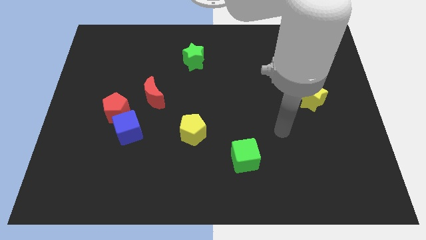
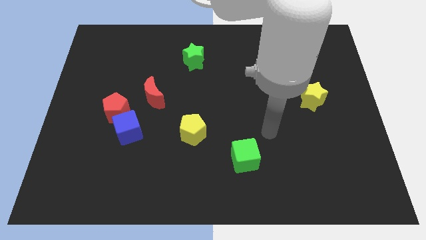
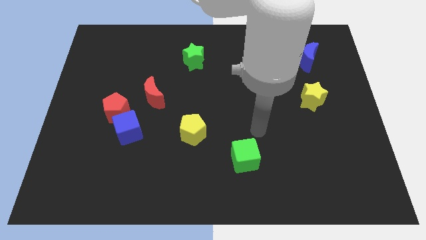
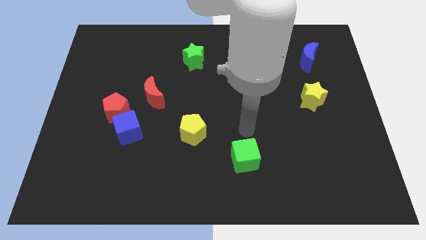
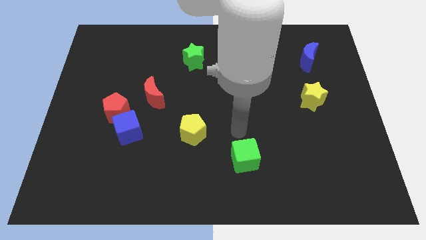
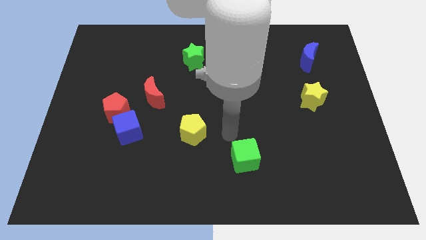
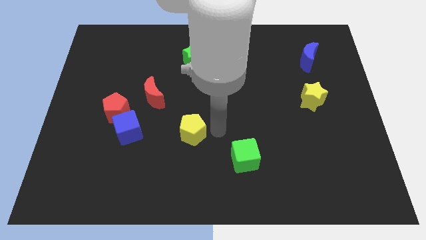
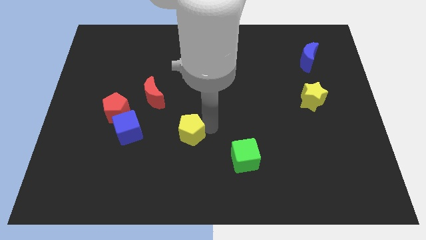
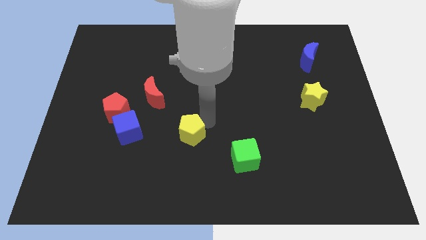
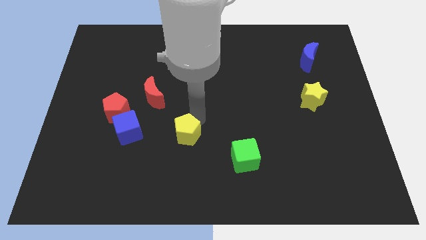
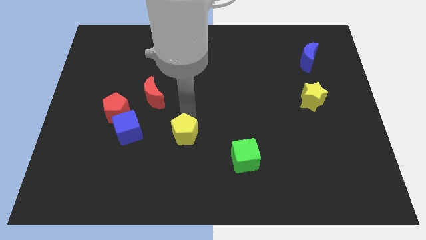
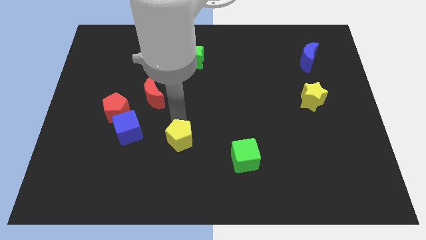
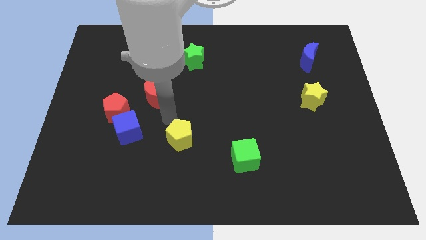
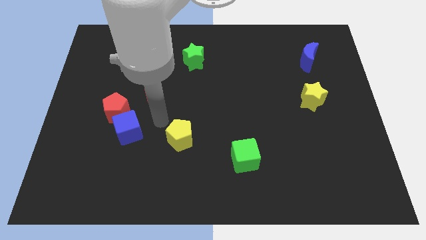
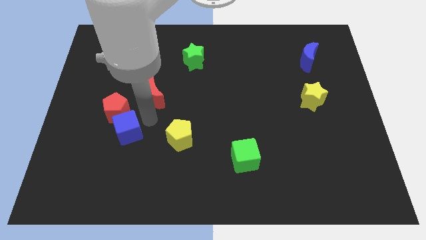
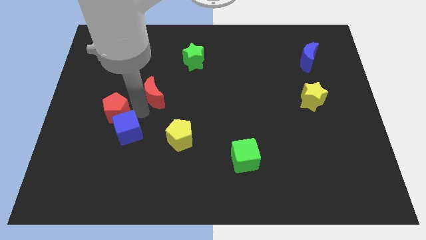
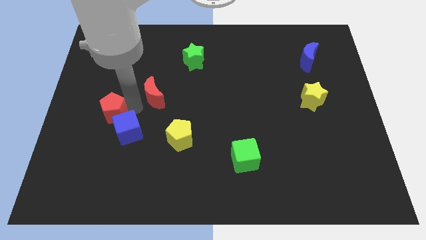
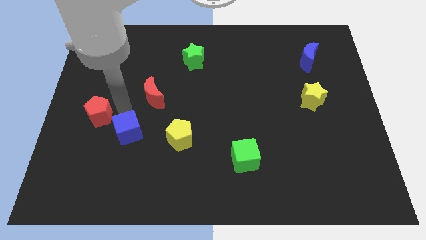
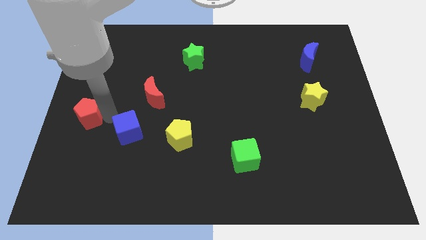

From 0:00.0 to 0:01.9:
separate the blue cube from the red pentagon

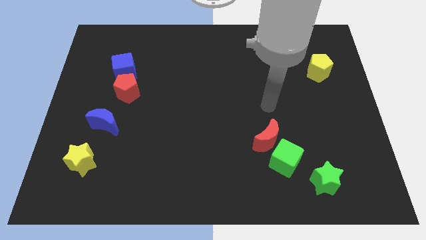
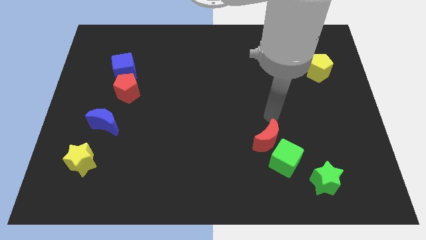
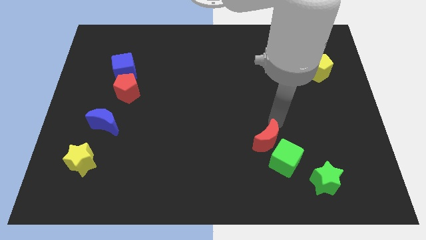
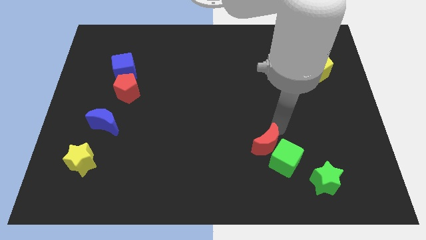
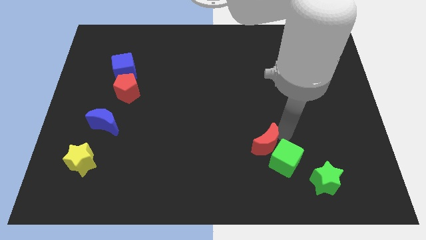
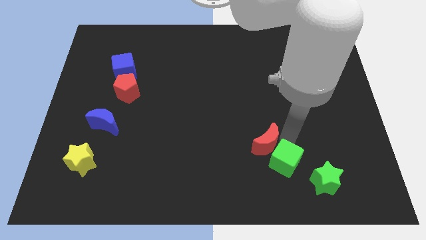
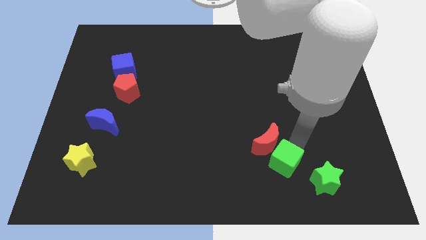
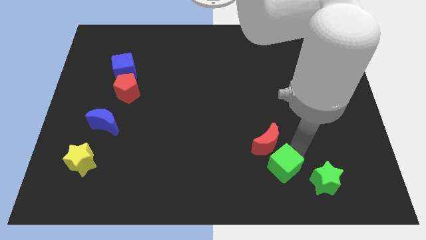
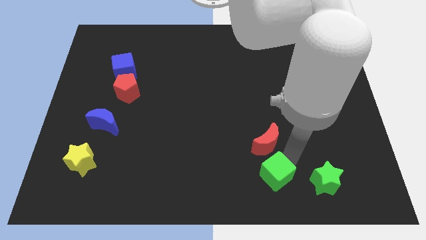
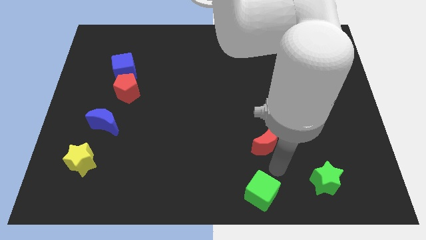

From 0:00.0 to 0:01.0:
separate the red moon from the green cube

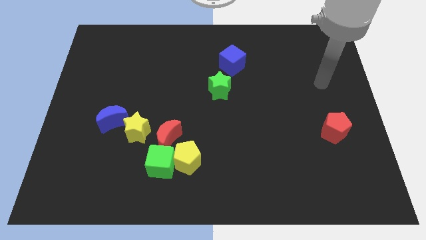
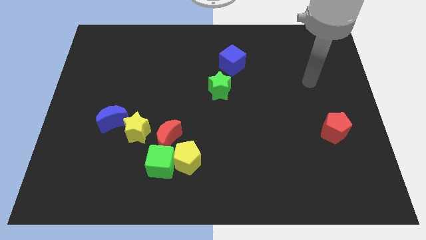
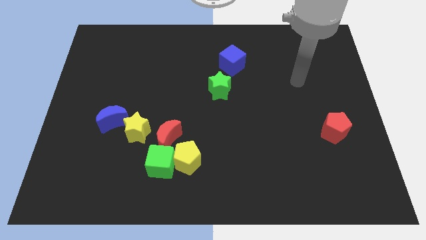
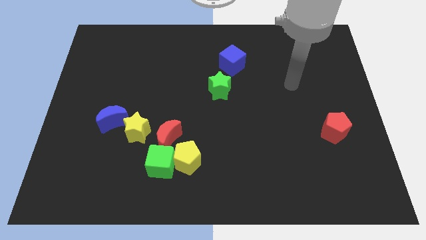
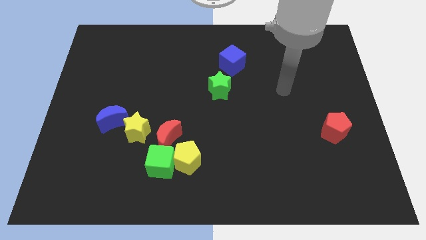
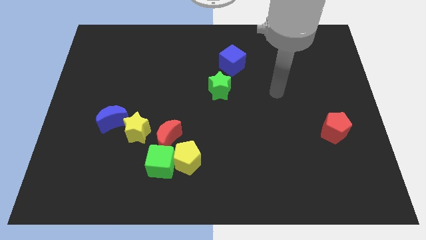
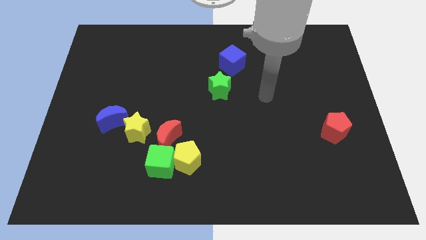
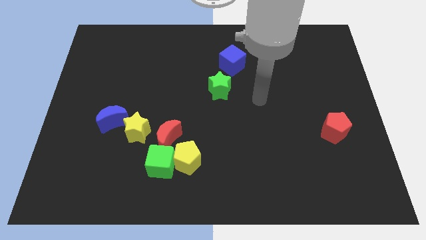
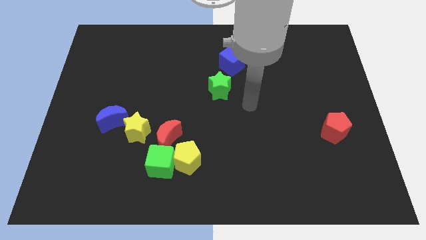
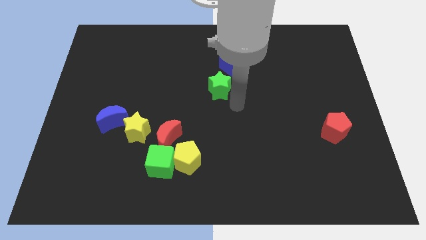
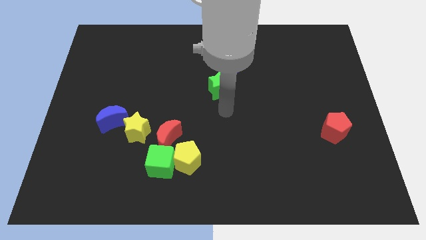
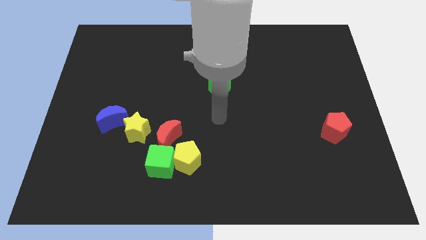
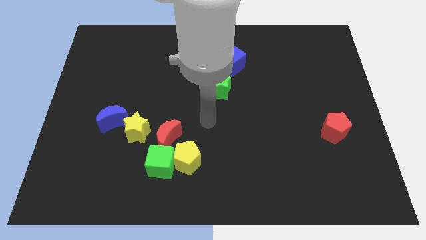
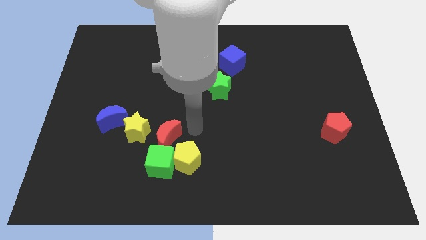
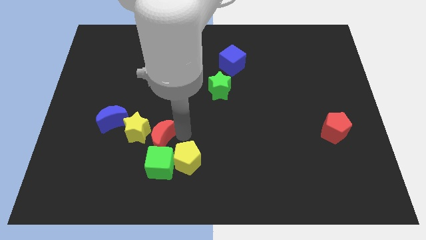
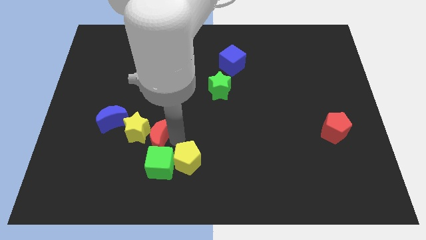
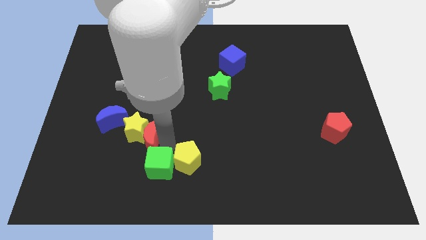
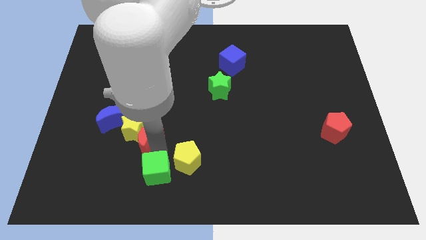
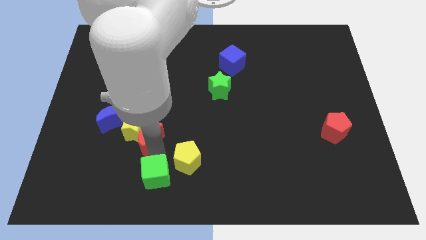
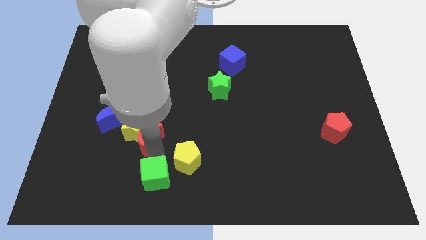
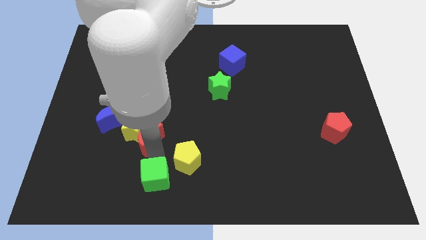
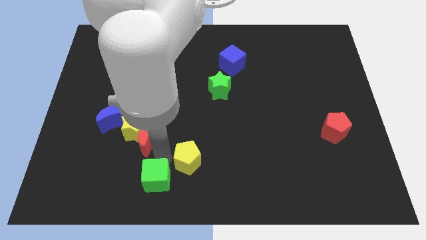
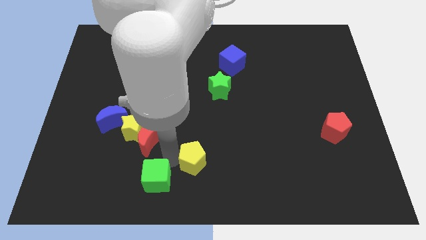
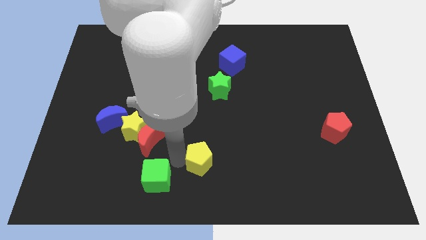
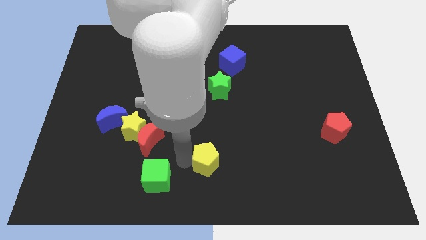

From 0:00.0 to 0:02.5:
move the yellow pentagon away from the green cube and red moon

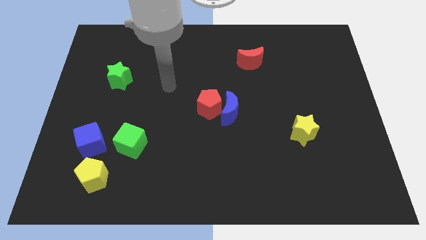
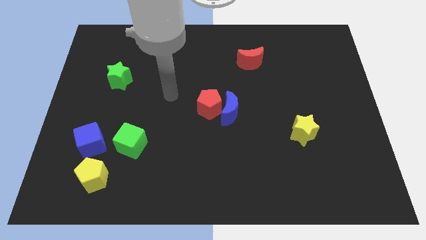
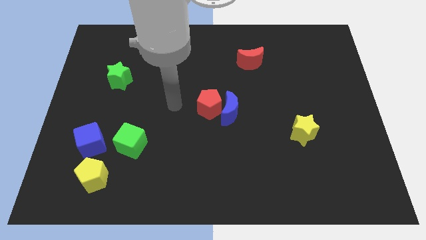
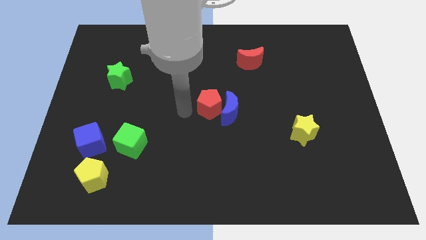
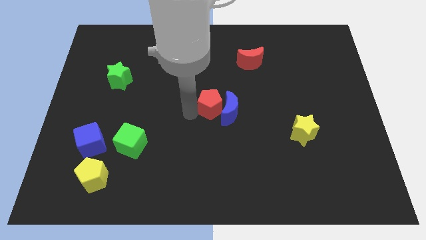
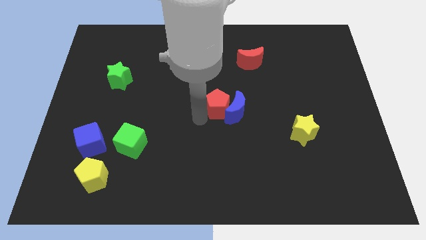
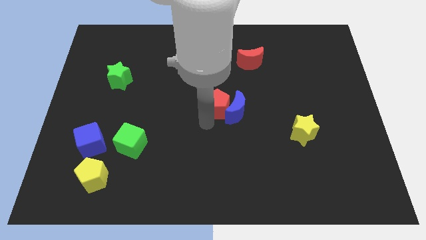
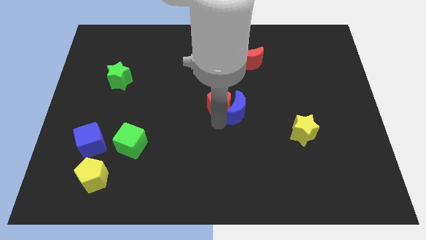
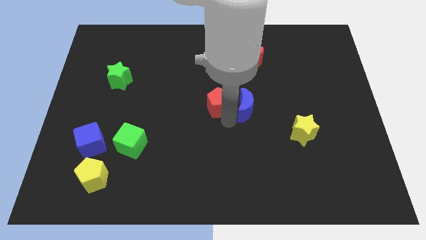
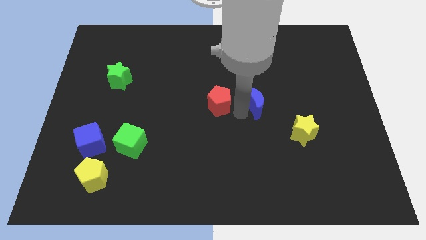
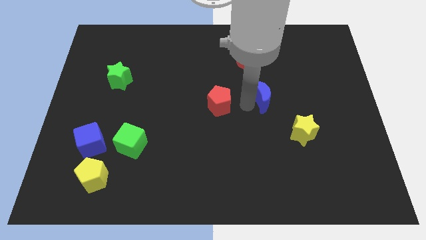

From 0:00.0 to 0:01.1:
pull the red pentagon apart from the blue moon

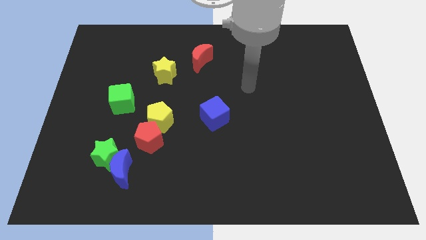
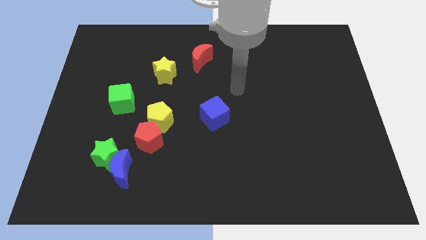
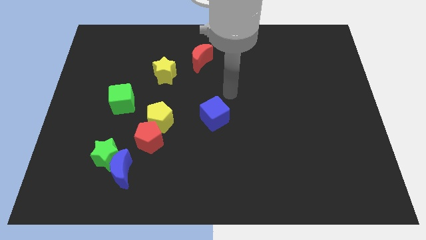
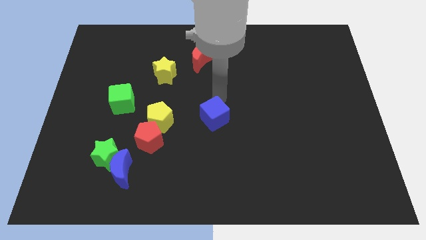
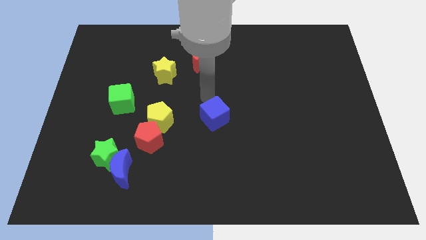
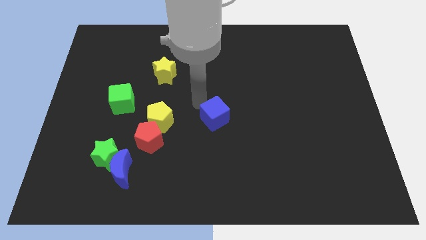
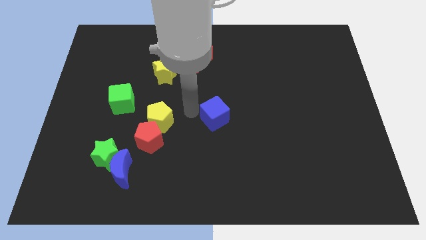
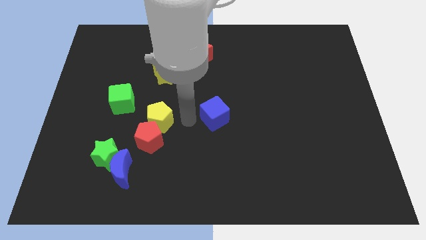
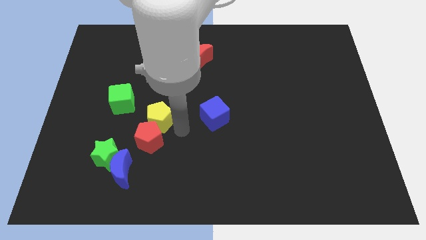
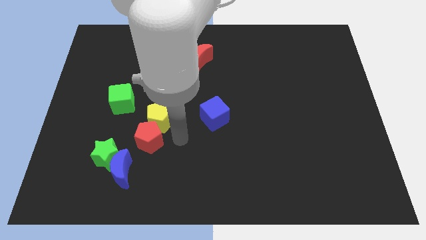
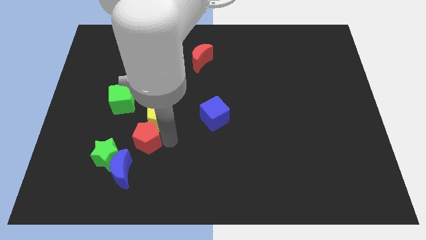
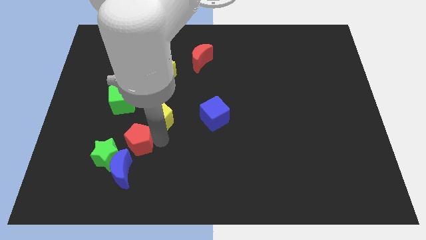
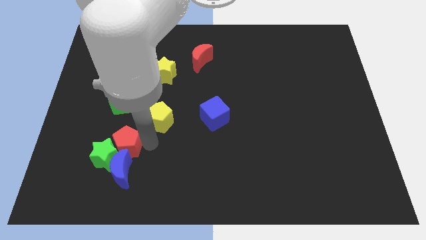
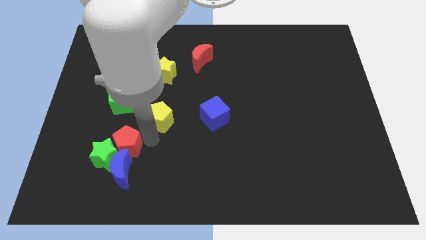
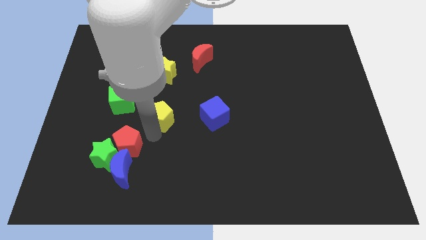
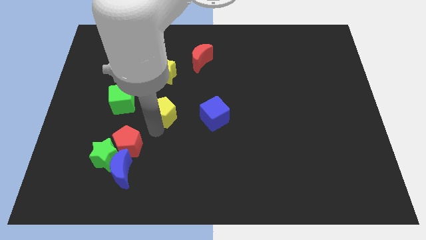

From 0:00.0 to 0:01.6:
separate the yellow pentagon from the red pentagon

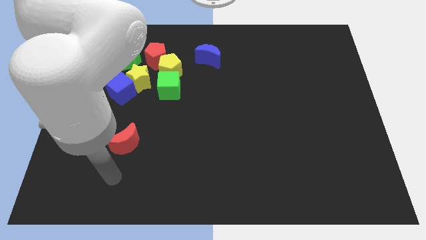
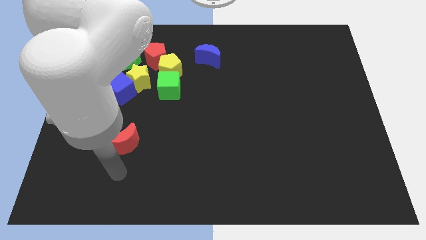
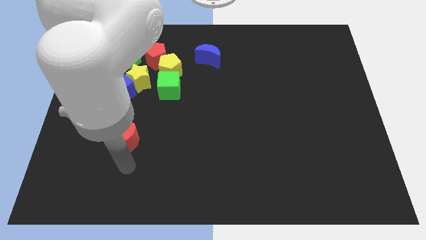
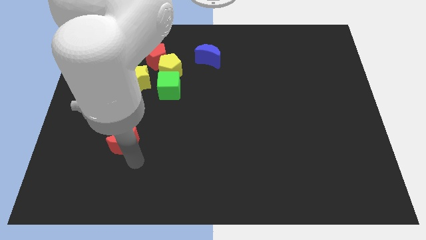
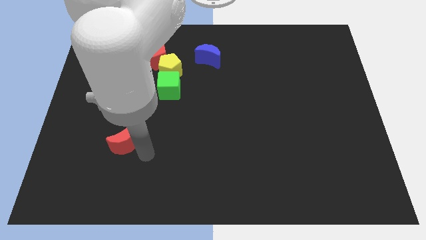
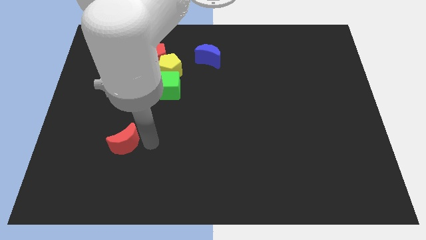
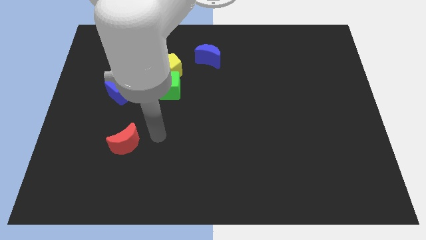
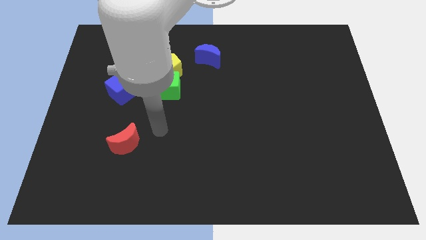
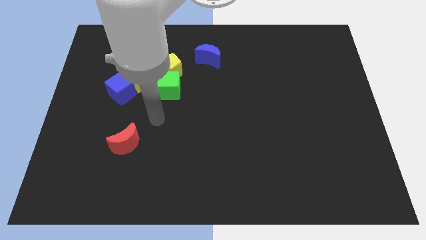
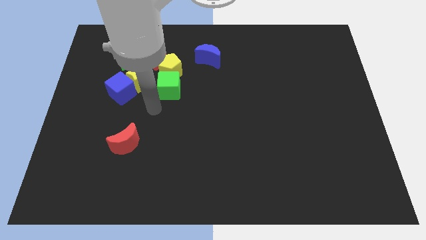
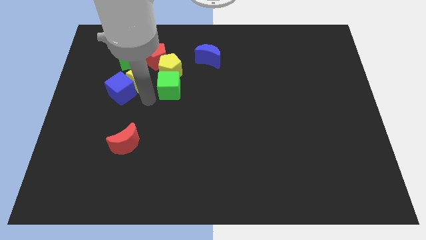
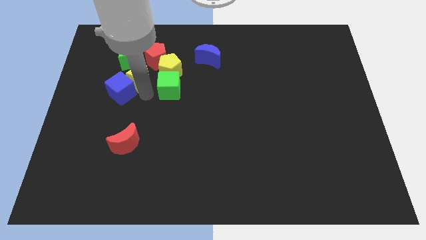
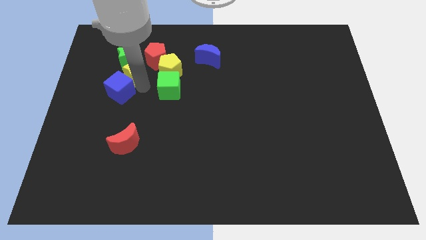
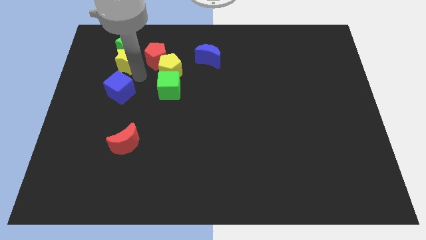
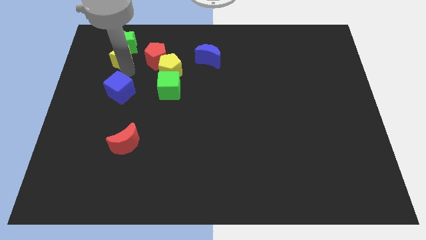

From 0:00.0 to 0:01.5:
separate the blue cube from the yellow star
